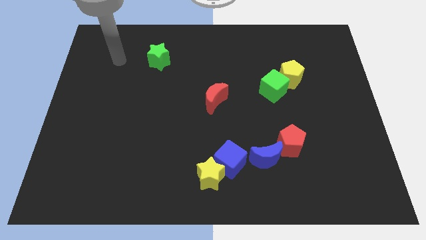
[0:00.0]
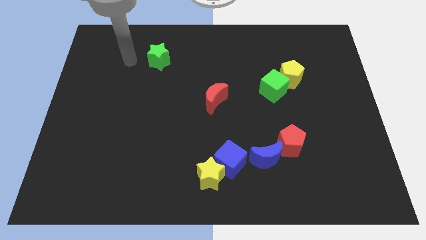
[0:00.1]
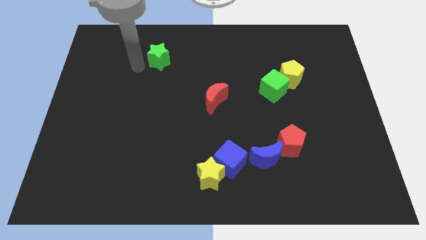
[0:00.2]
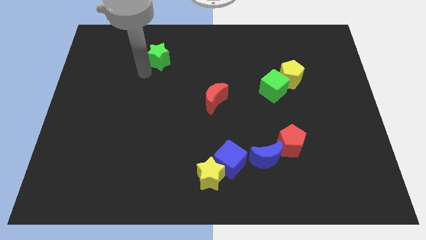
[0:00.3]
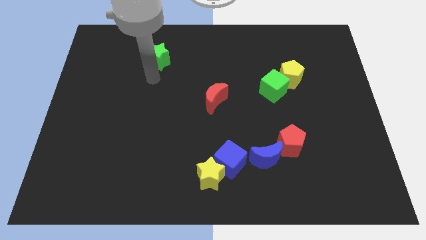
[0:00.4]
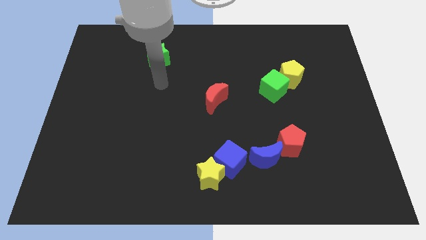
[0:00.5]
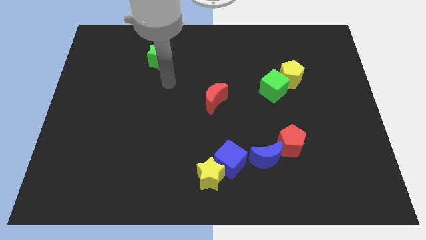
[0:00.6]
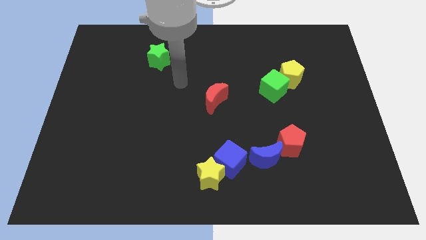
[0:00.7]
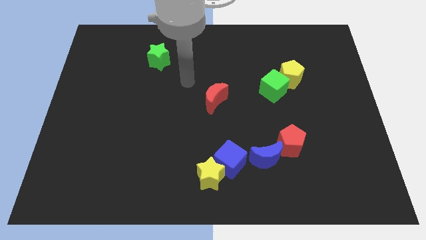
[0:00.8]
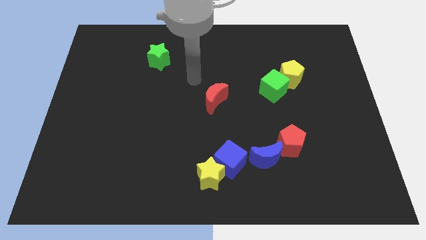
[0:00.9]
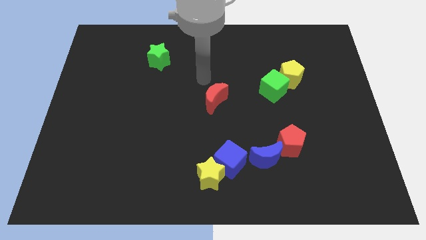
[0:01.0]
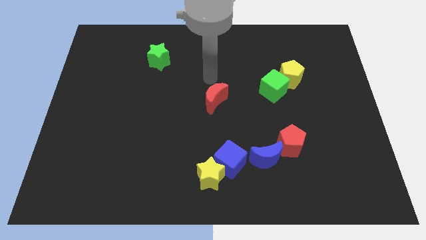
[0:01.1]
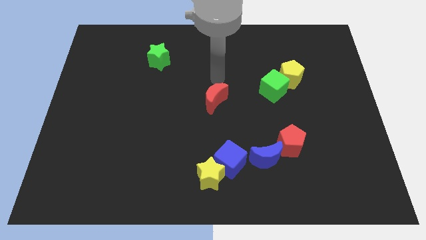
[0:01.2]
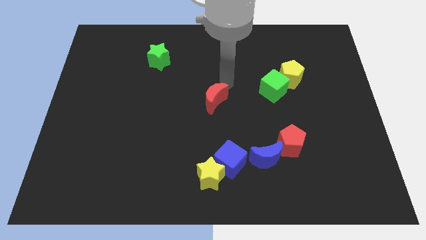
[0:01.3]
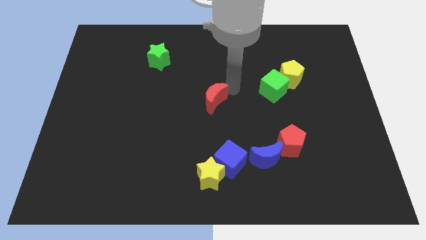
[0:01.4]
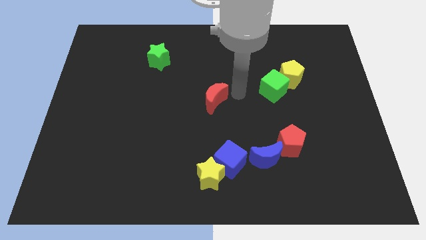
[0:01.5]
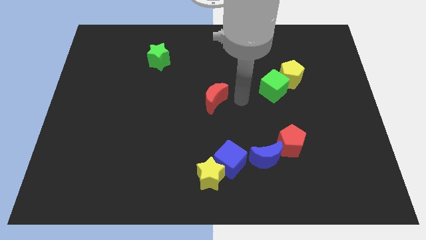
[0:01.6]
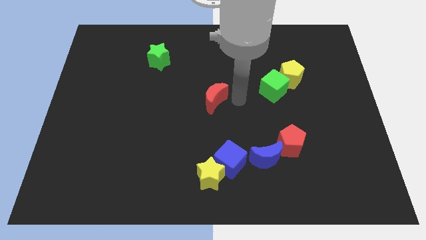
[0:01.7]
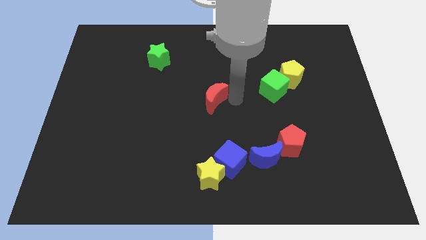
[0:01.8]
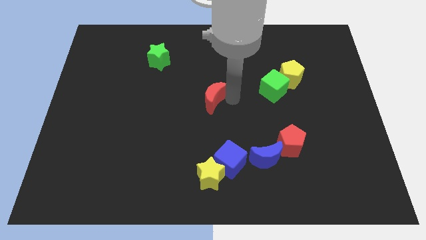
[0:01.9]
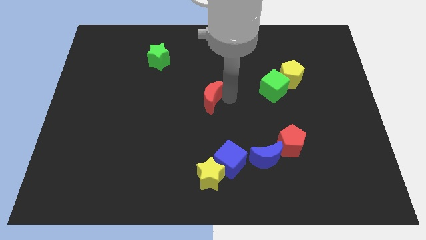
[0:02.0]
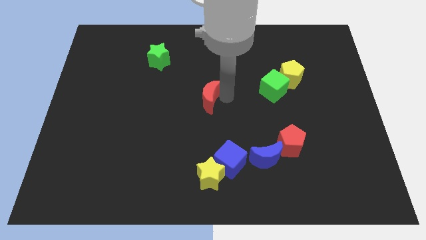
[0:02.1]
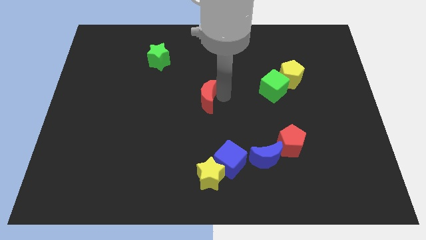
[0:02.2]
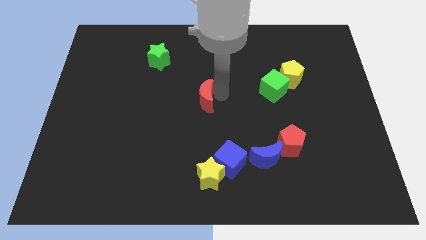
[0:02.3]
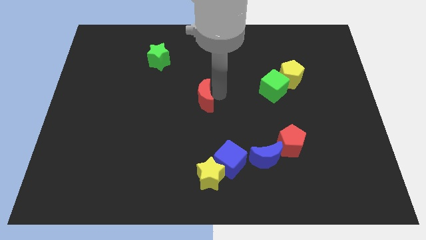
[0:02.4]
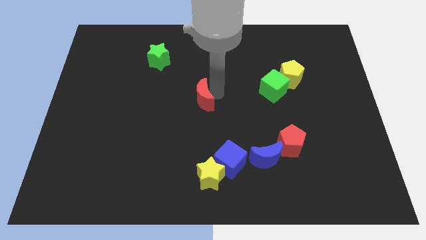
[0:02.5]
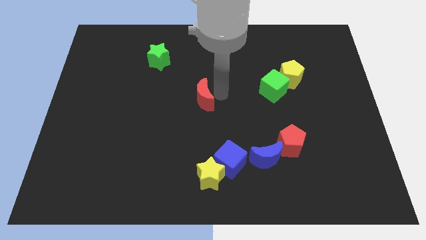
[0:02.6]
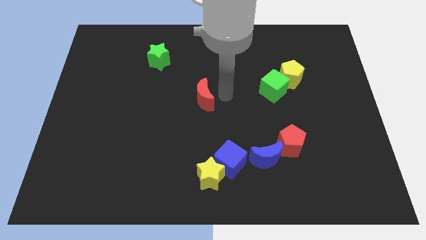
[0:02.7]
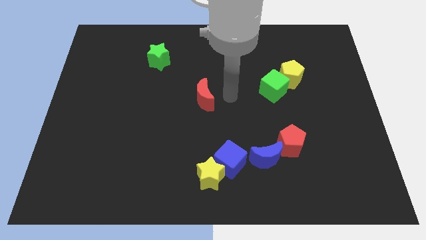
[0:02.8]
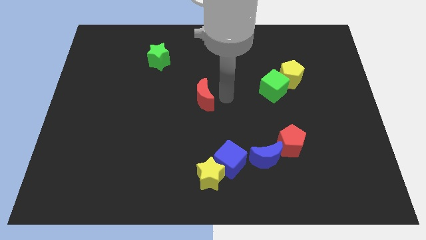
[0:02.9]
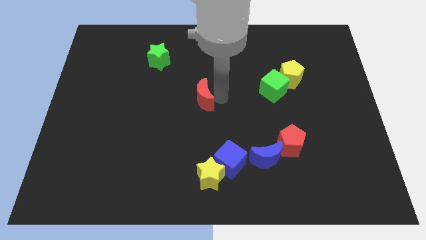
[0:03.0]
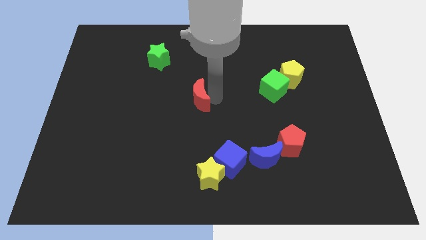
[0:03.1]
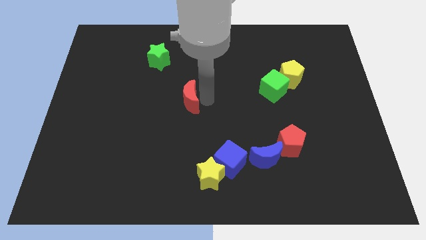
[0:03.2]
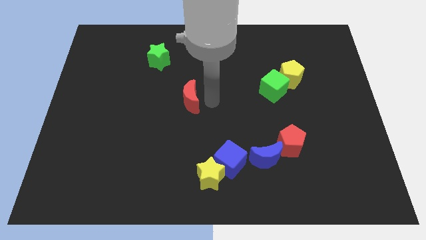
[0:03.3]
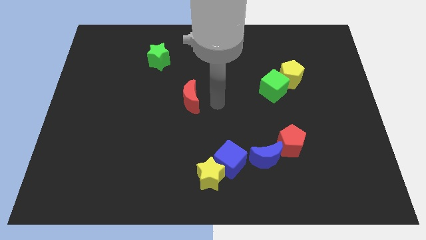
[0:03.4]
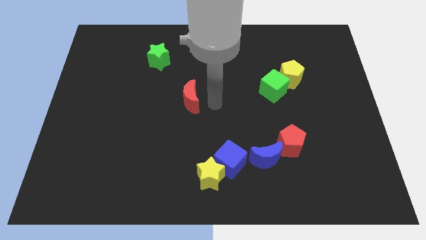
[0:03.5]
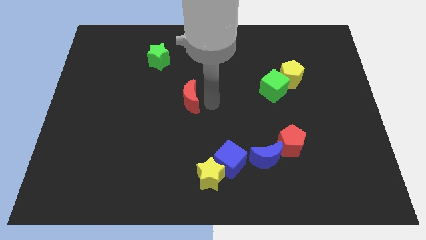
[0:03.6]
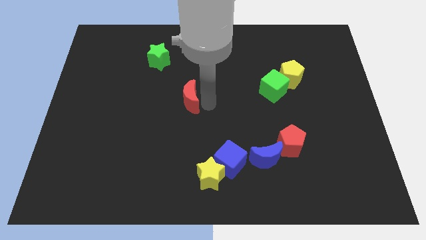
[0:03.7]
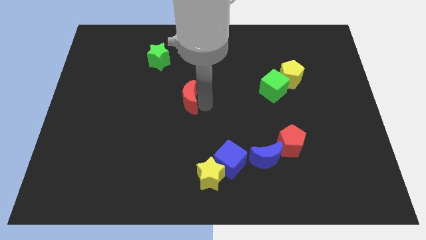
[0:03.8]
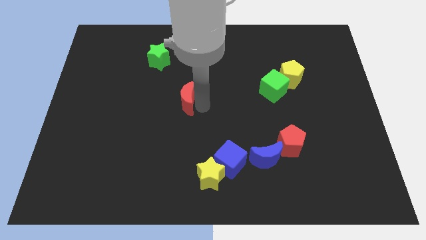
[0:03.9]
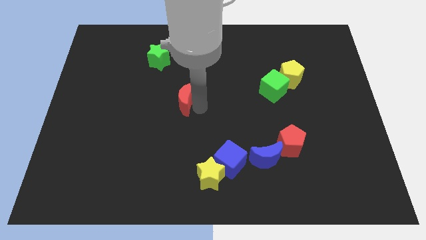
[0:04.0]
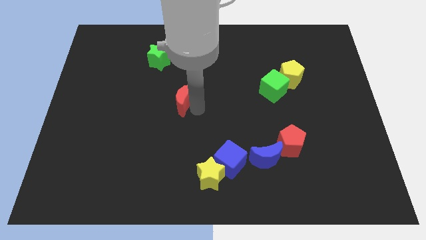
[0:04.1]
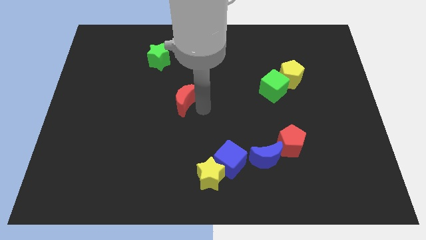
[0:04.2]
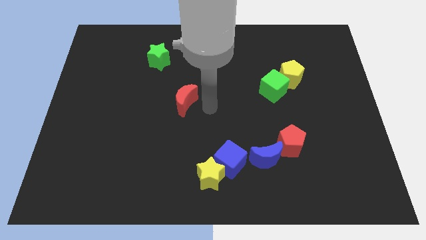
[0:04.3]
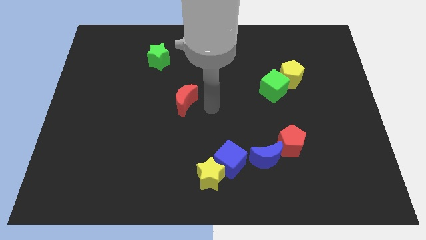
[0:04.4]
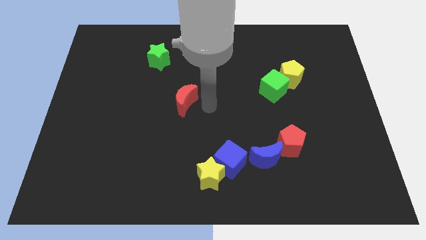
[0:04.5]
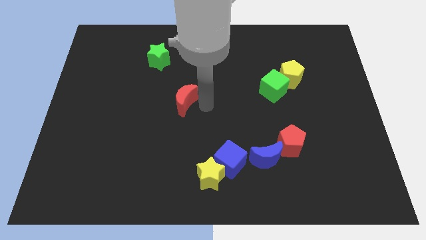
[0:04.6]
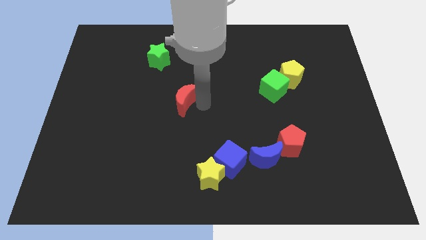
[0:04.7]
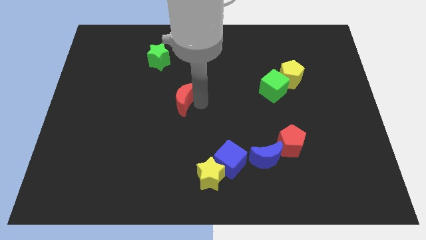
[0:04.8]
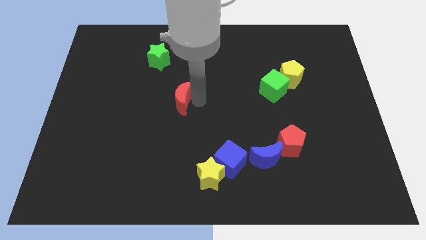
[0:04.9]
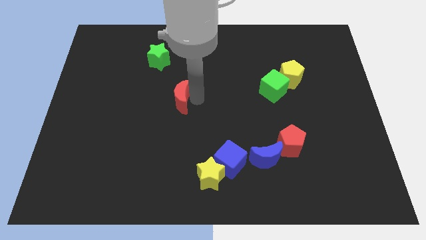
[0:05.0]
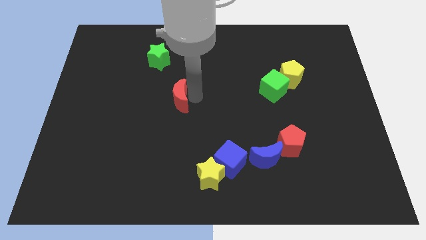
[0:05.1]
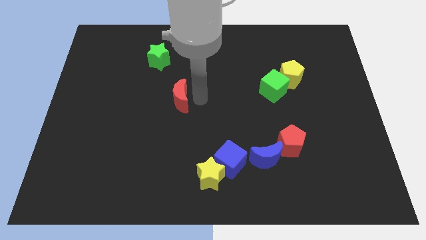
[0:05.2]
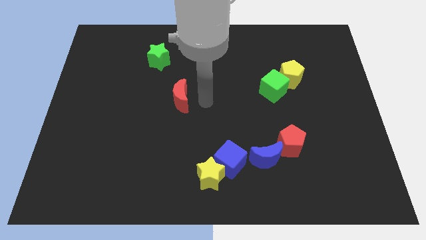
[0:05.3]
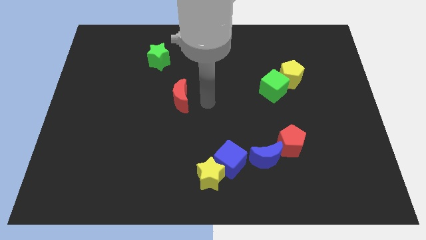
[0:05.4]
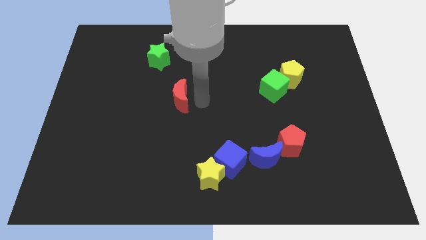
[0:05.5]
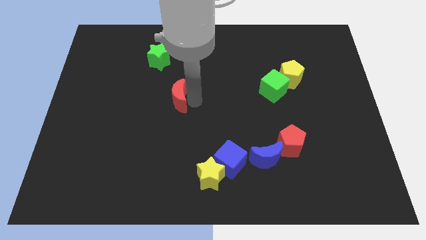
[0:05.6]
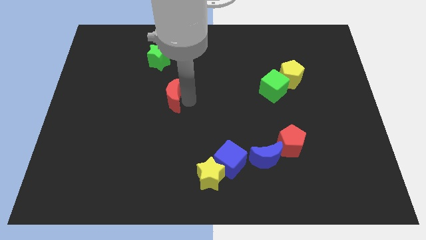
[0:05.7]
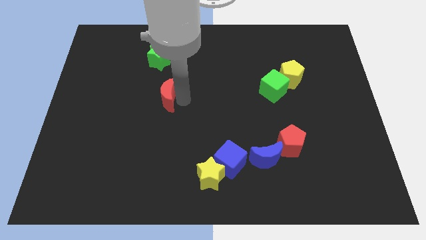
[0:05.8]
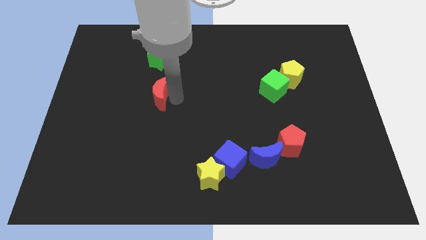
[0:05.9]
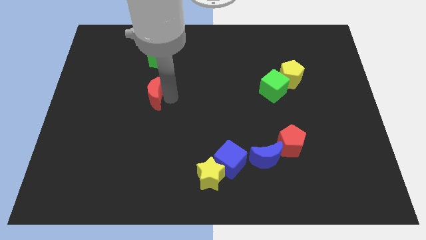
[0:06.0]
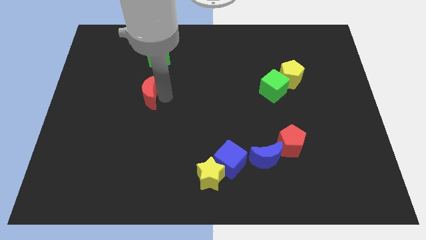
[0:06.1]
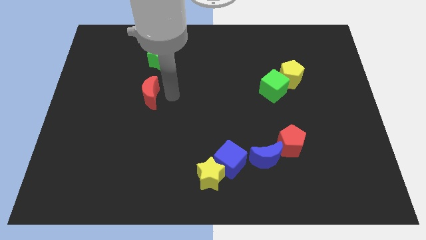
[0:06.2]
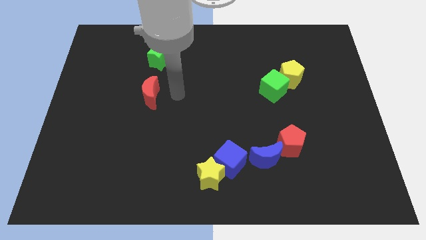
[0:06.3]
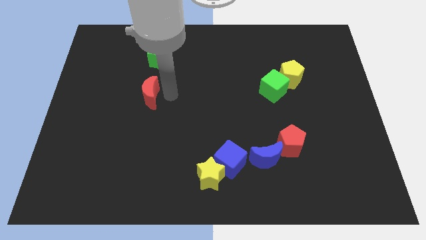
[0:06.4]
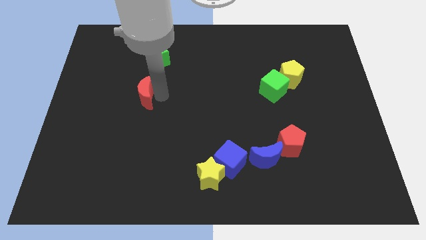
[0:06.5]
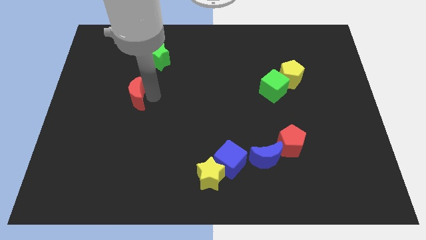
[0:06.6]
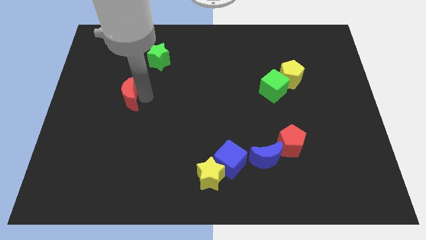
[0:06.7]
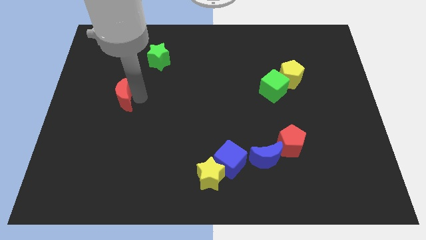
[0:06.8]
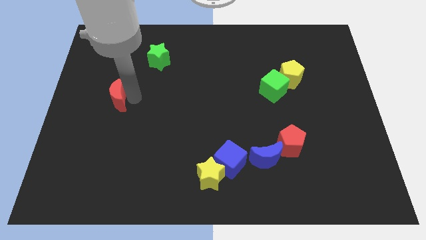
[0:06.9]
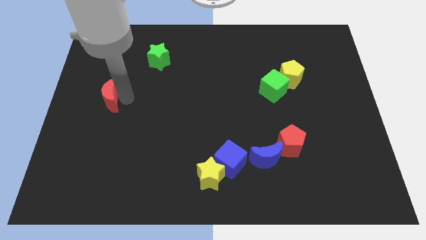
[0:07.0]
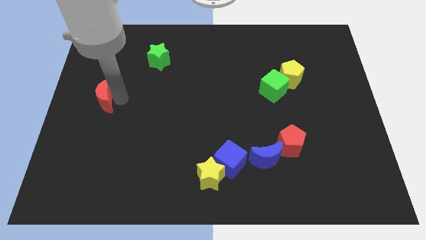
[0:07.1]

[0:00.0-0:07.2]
slide the red moon to the left side

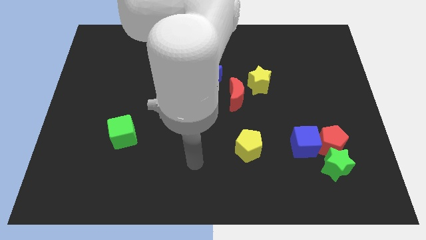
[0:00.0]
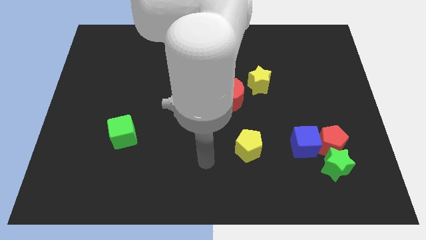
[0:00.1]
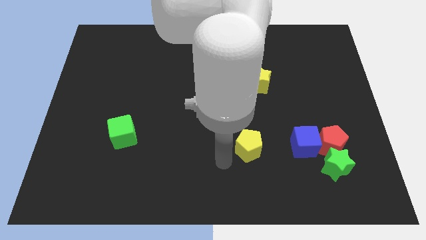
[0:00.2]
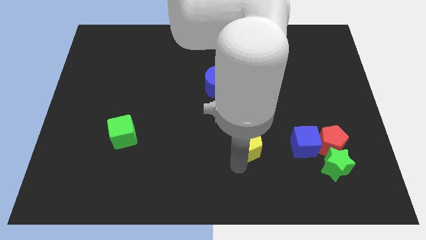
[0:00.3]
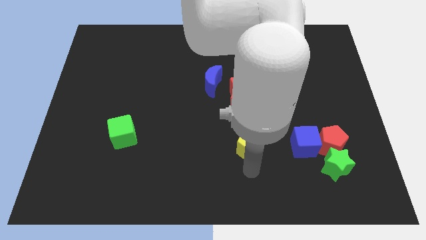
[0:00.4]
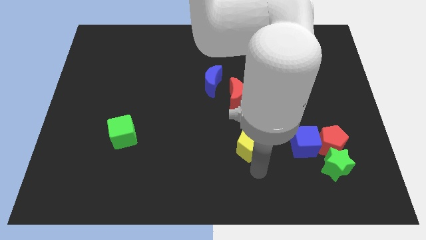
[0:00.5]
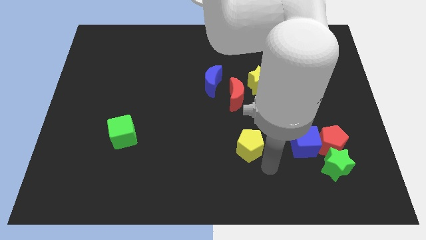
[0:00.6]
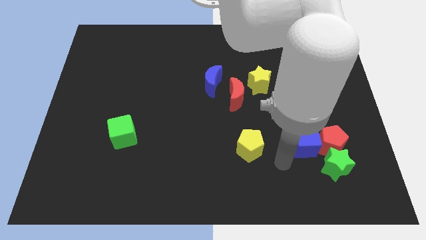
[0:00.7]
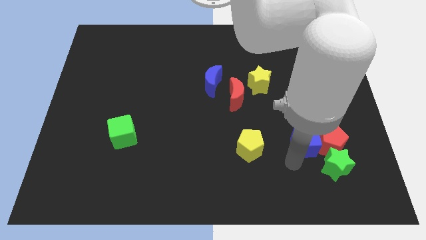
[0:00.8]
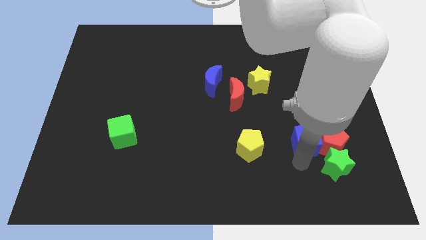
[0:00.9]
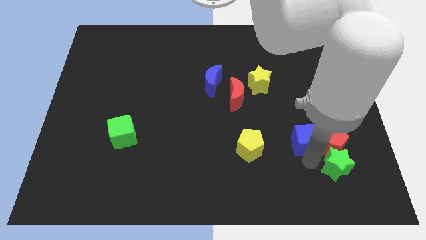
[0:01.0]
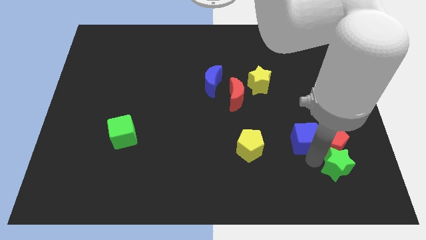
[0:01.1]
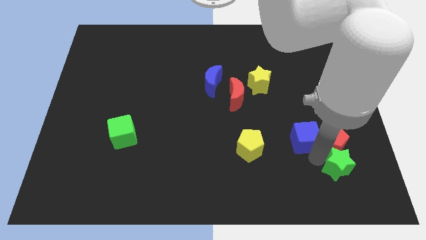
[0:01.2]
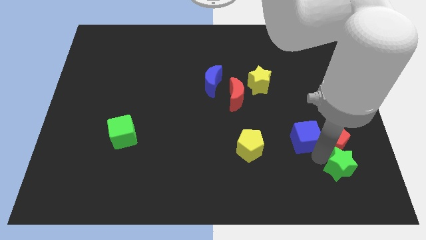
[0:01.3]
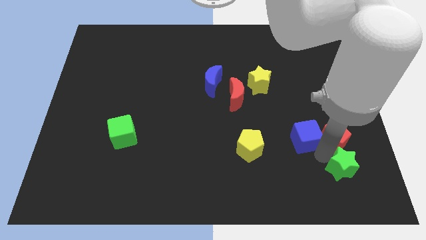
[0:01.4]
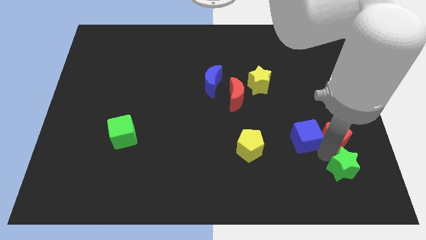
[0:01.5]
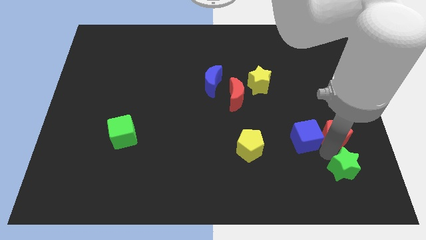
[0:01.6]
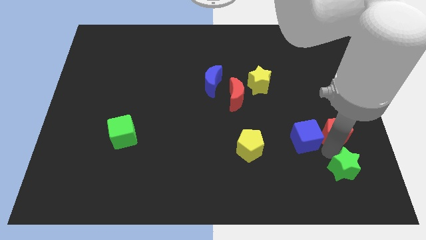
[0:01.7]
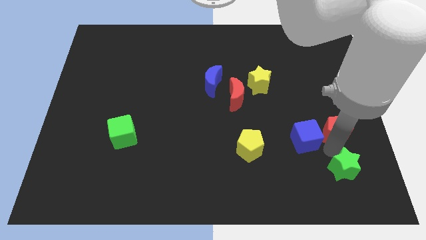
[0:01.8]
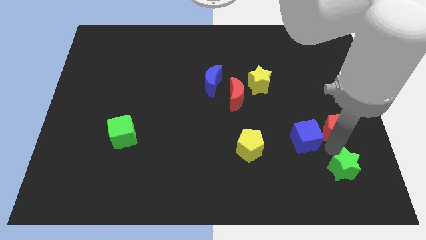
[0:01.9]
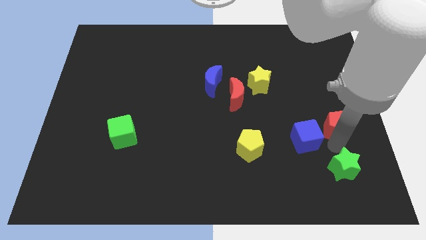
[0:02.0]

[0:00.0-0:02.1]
move the red pentagon to the right side of the board
